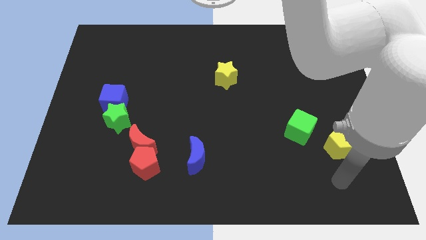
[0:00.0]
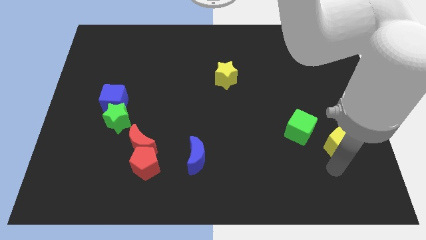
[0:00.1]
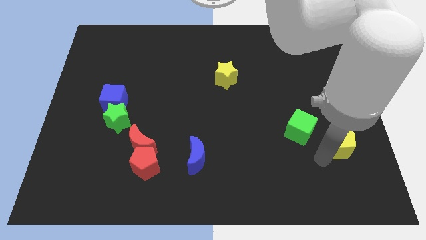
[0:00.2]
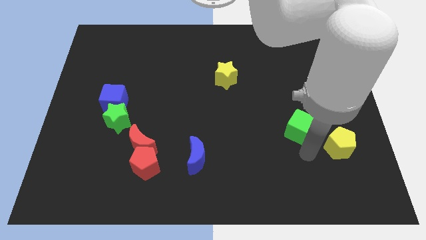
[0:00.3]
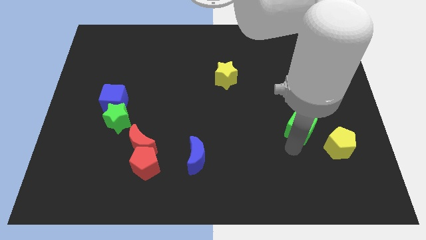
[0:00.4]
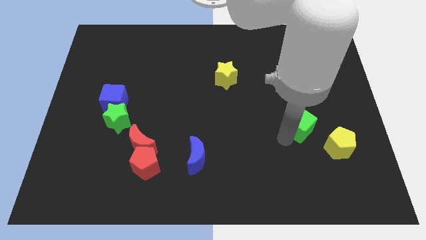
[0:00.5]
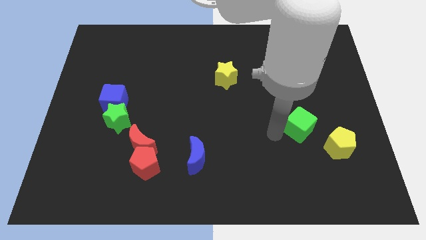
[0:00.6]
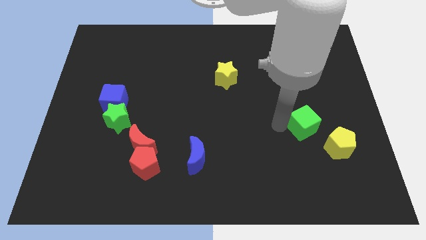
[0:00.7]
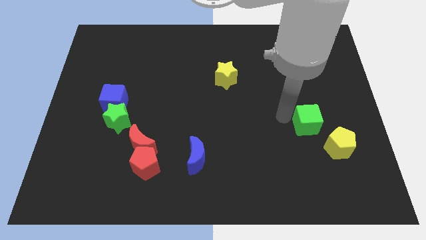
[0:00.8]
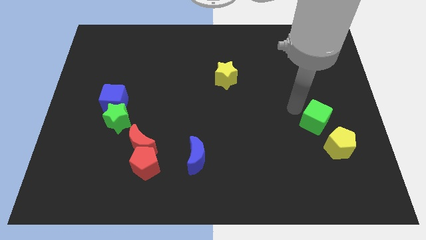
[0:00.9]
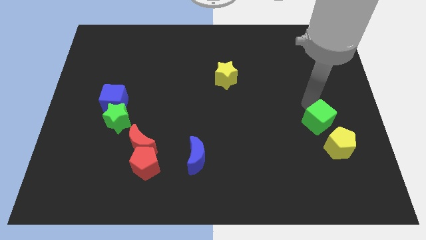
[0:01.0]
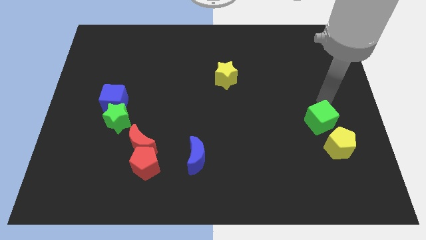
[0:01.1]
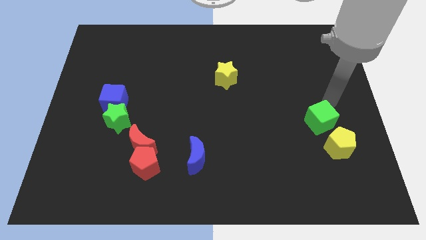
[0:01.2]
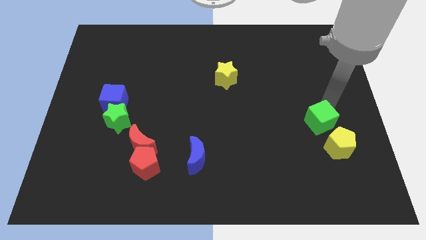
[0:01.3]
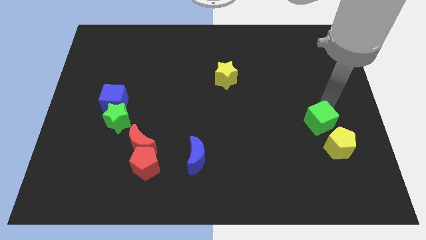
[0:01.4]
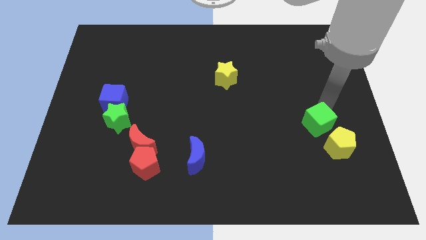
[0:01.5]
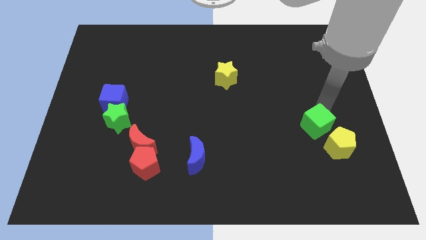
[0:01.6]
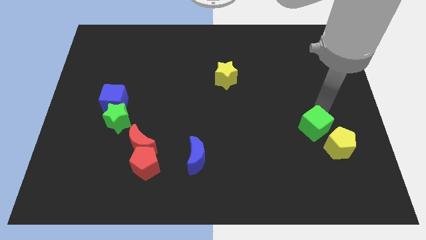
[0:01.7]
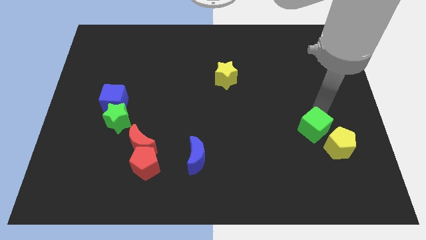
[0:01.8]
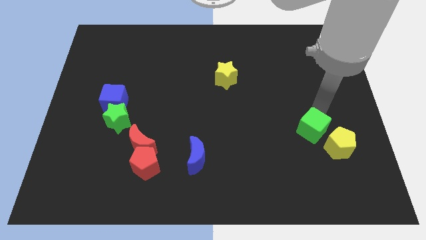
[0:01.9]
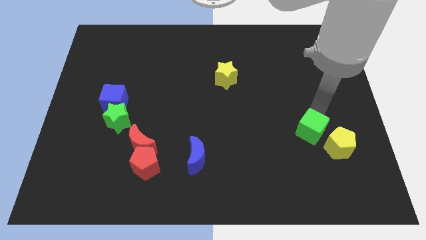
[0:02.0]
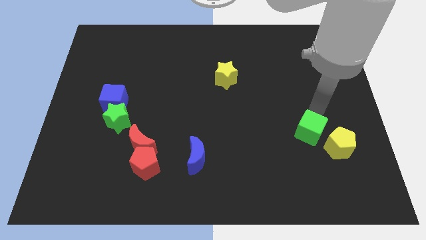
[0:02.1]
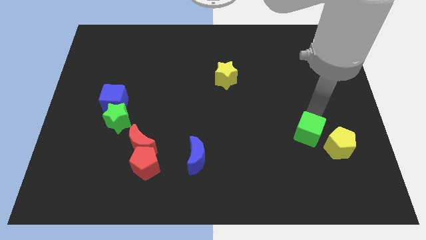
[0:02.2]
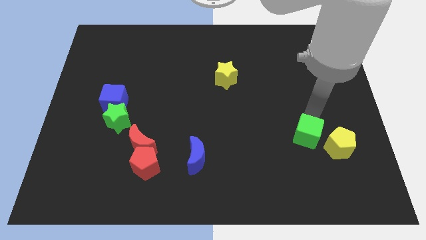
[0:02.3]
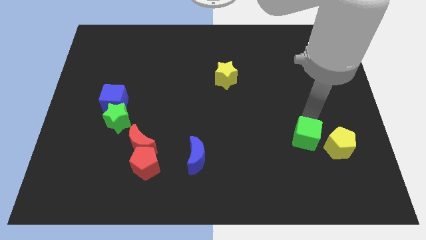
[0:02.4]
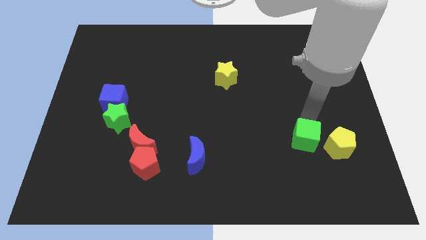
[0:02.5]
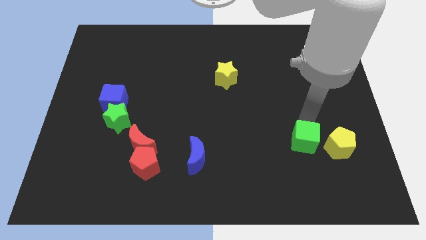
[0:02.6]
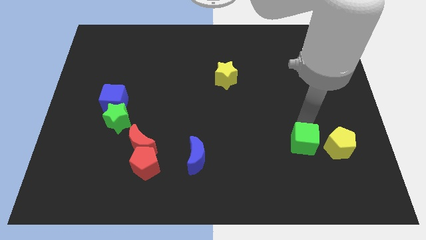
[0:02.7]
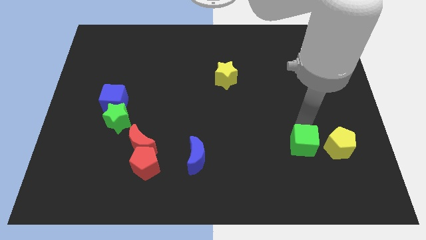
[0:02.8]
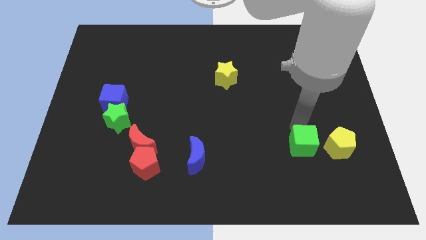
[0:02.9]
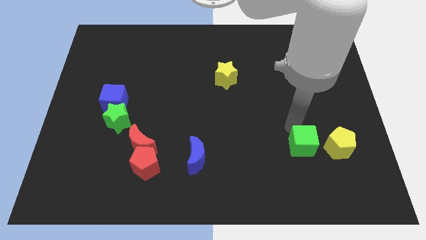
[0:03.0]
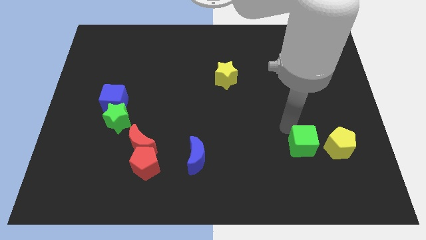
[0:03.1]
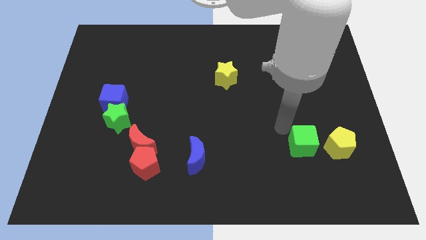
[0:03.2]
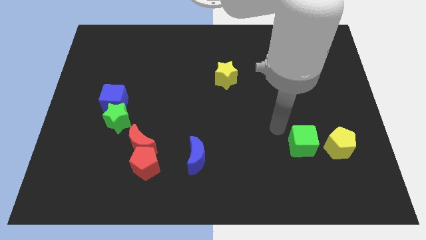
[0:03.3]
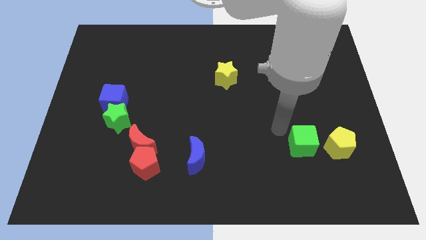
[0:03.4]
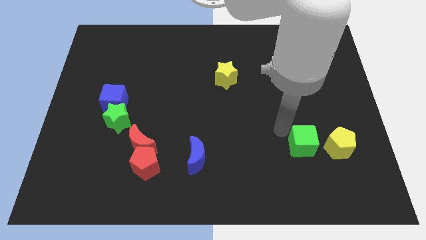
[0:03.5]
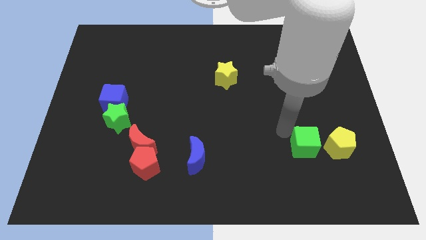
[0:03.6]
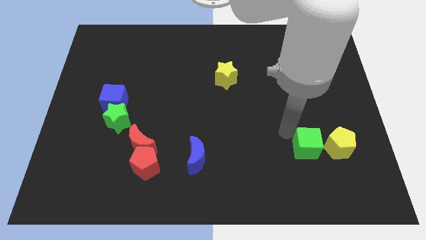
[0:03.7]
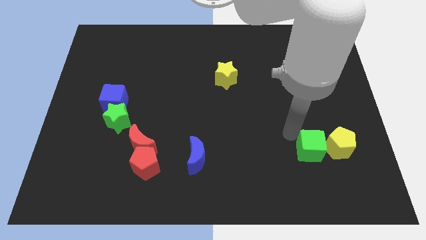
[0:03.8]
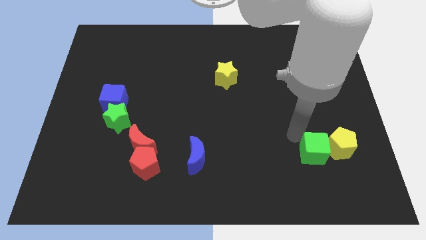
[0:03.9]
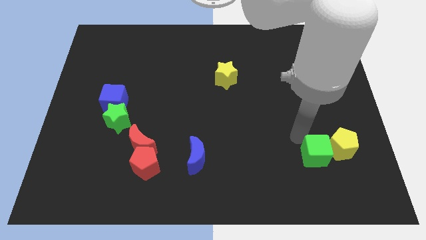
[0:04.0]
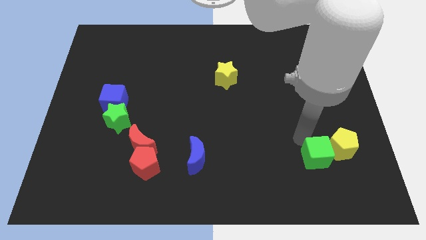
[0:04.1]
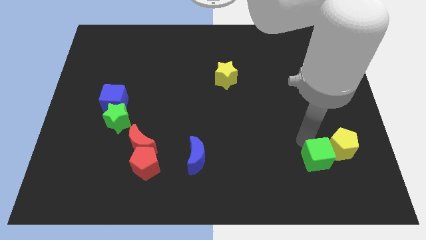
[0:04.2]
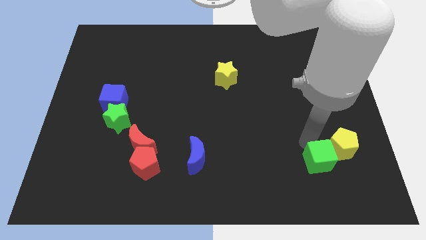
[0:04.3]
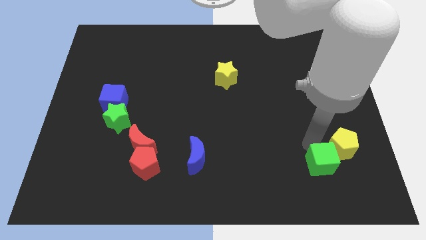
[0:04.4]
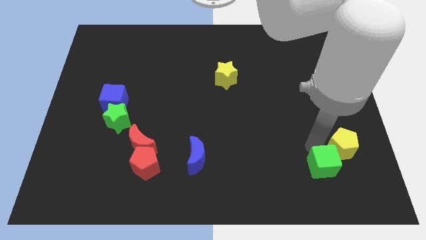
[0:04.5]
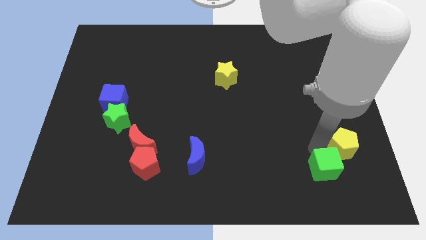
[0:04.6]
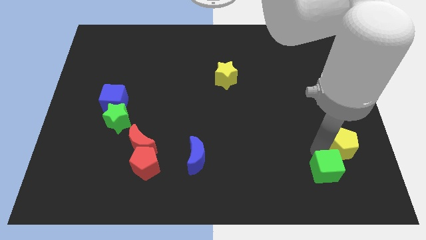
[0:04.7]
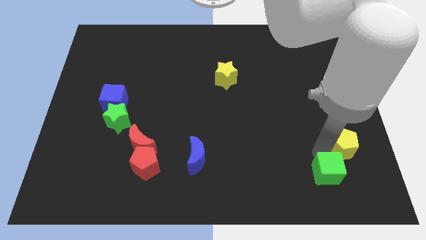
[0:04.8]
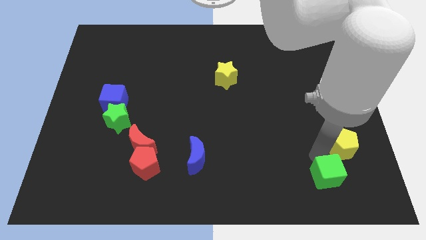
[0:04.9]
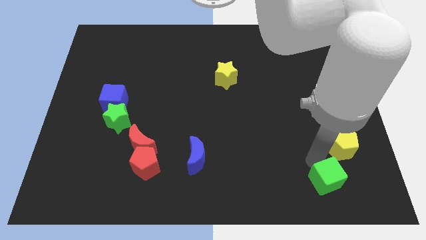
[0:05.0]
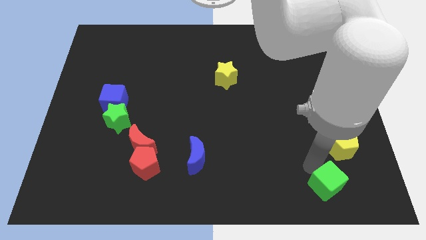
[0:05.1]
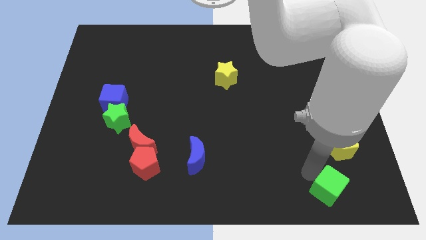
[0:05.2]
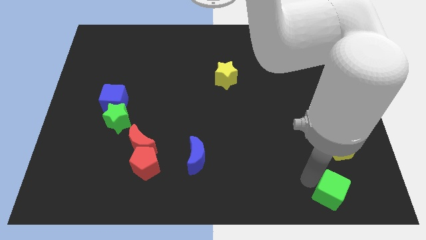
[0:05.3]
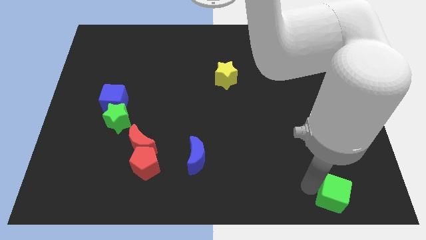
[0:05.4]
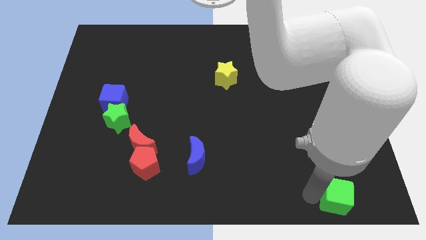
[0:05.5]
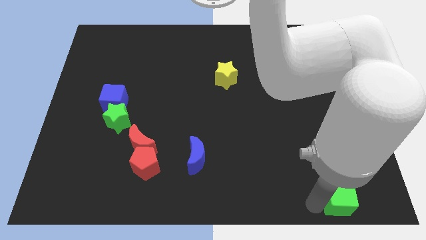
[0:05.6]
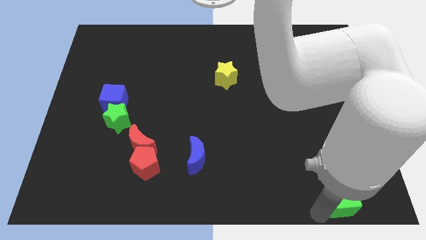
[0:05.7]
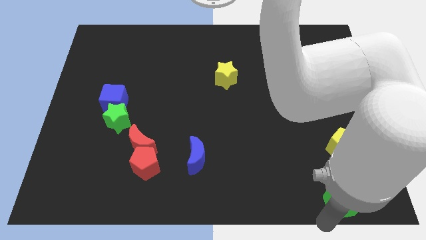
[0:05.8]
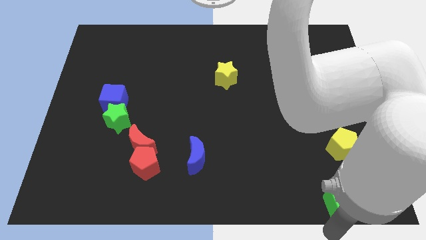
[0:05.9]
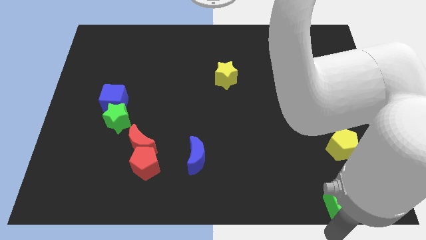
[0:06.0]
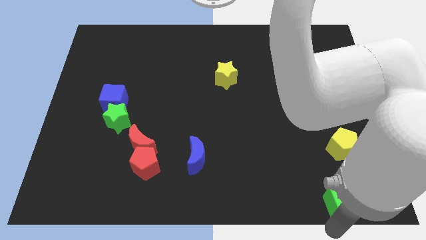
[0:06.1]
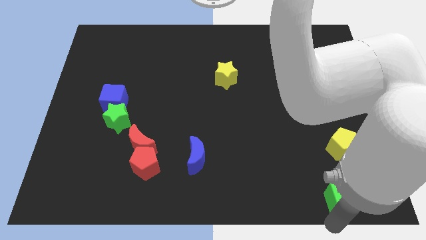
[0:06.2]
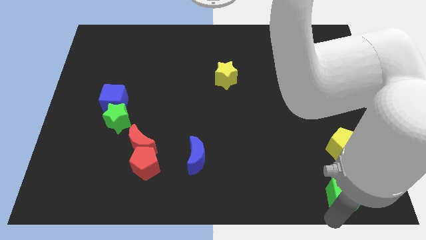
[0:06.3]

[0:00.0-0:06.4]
put the green cube to the bottom right of the board
